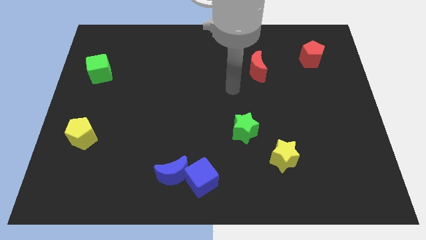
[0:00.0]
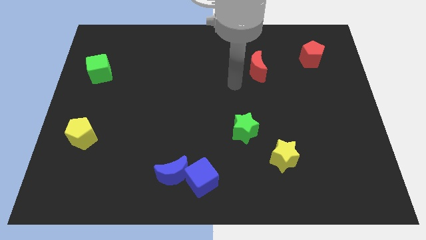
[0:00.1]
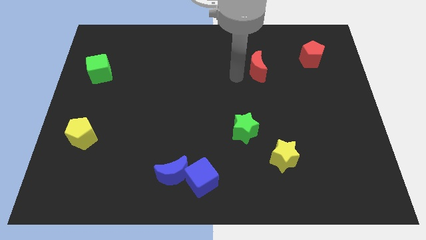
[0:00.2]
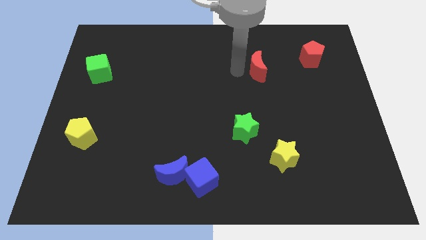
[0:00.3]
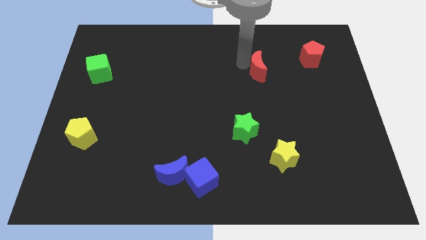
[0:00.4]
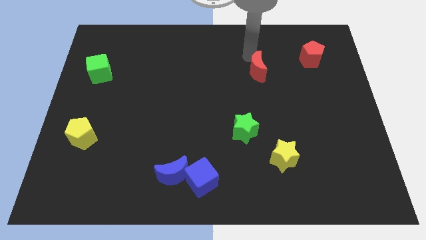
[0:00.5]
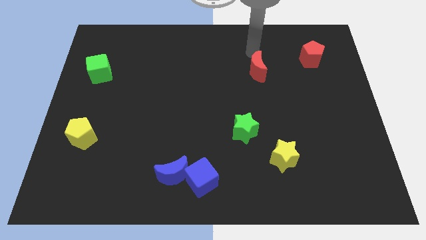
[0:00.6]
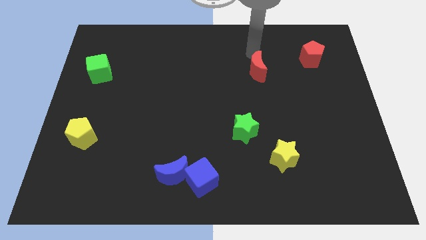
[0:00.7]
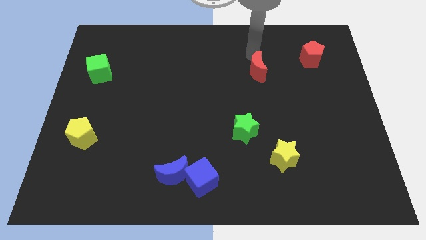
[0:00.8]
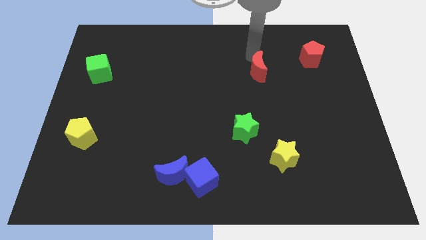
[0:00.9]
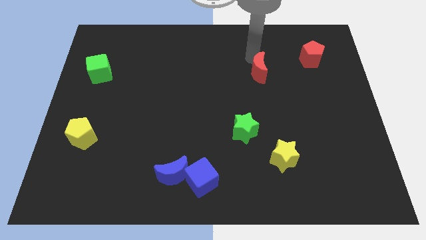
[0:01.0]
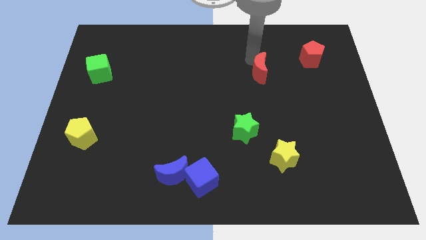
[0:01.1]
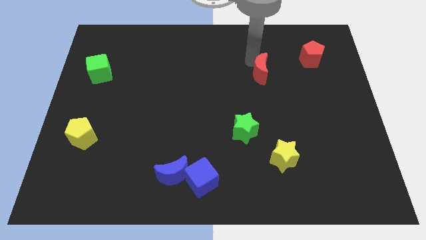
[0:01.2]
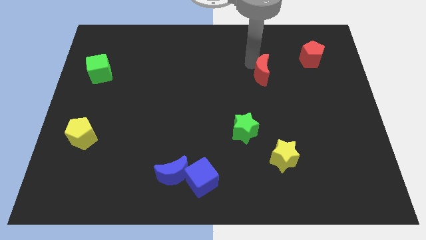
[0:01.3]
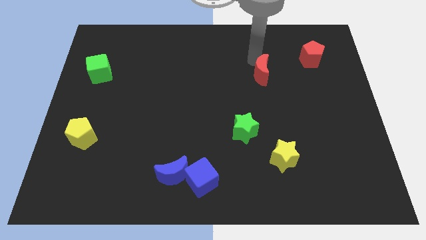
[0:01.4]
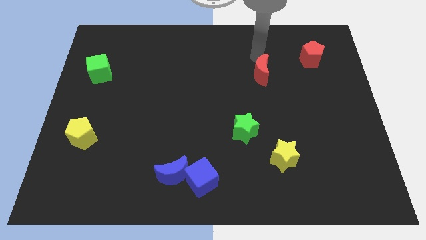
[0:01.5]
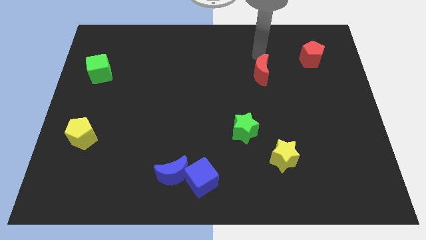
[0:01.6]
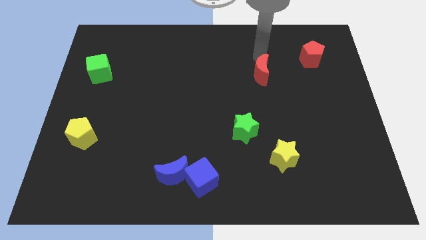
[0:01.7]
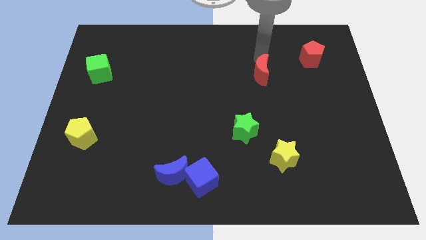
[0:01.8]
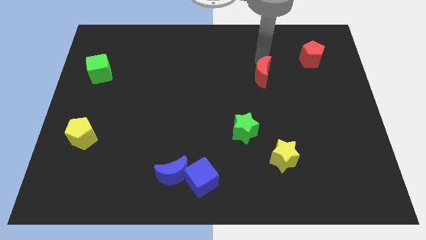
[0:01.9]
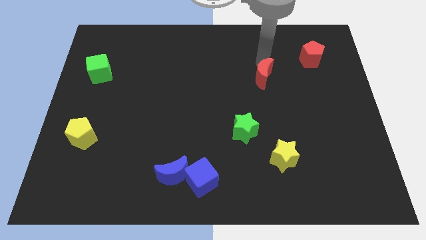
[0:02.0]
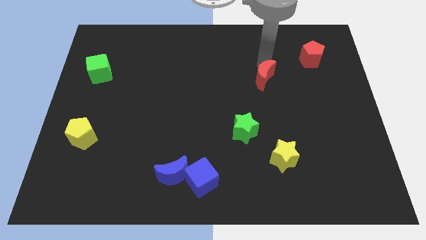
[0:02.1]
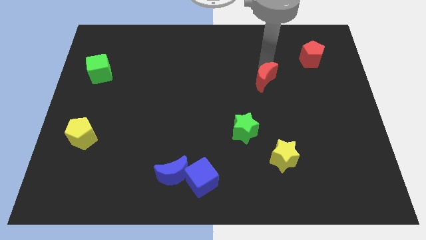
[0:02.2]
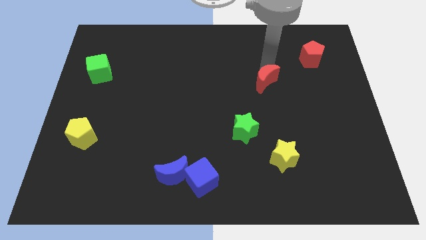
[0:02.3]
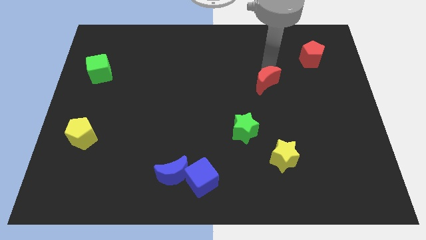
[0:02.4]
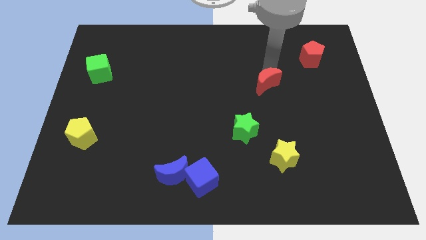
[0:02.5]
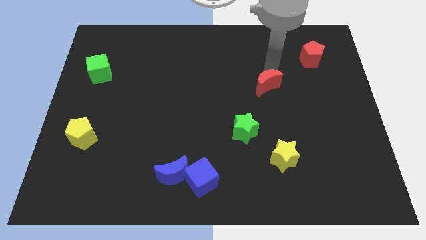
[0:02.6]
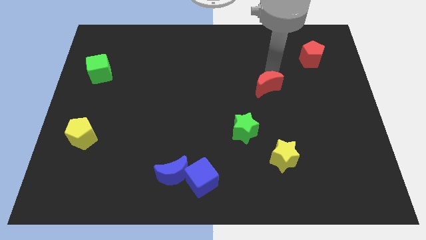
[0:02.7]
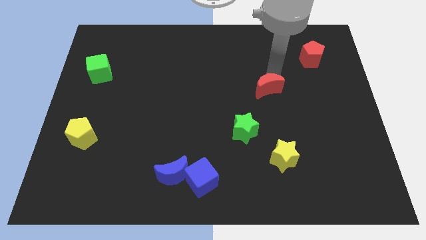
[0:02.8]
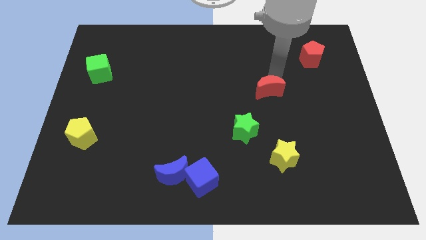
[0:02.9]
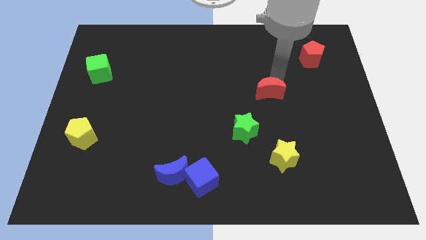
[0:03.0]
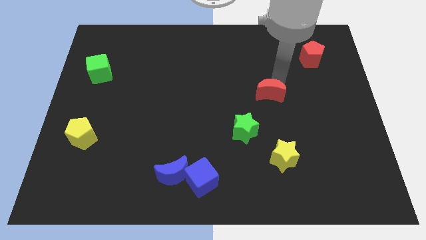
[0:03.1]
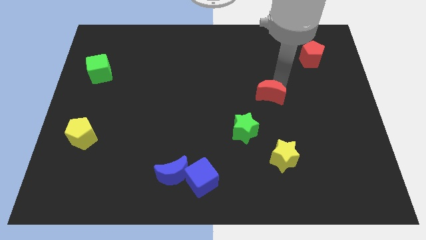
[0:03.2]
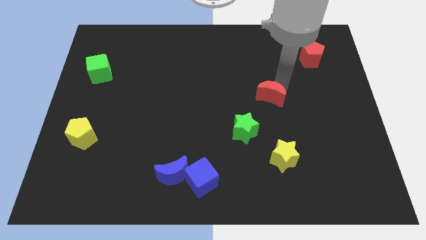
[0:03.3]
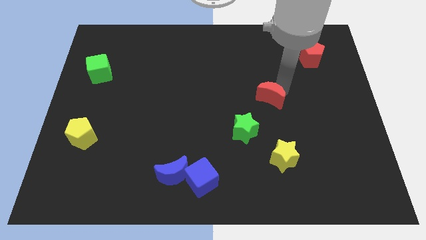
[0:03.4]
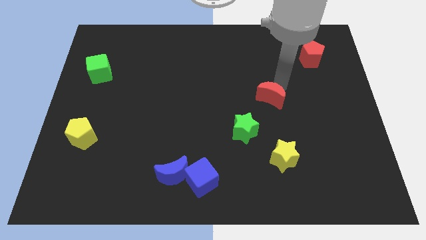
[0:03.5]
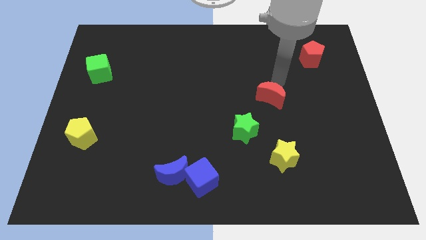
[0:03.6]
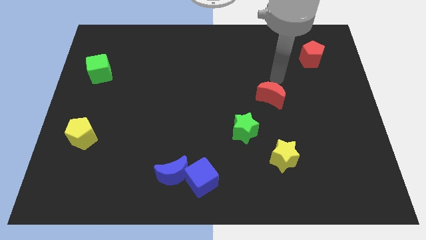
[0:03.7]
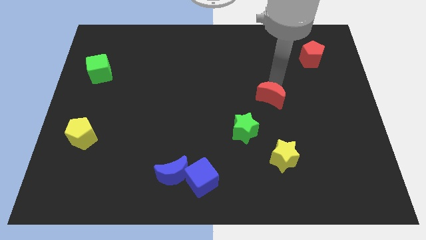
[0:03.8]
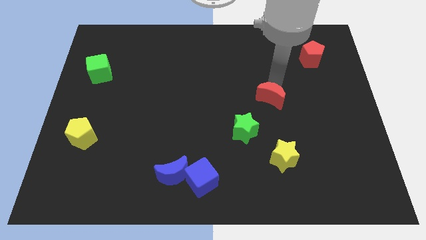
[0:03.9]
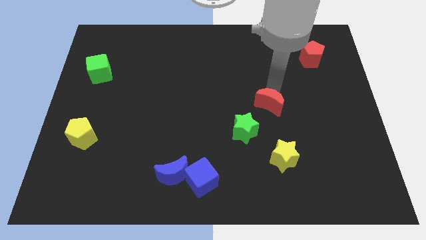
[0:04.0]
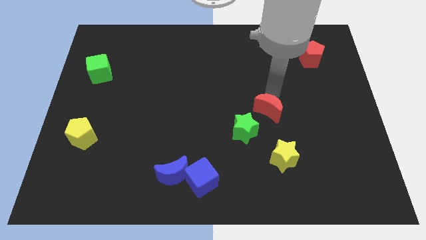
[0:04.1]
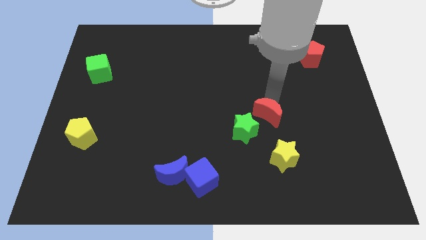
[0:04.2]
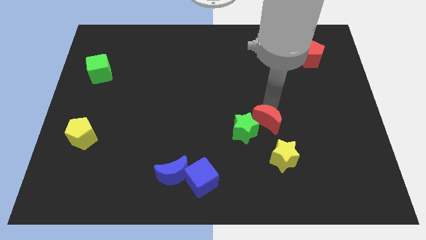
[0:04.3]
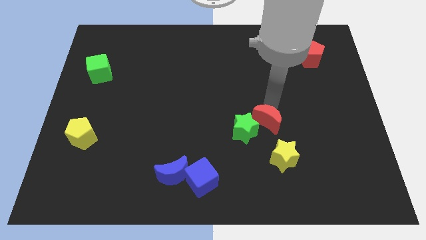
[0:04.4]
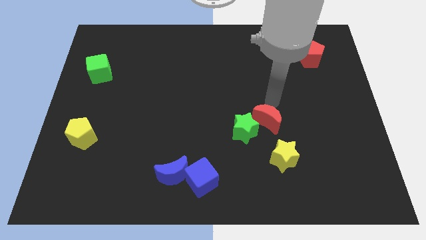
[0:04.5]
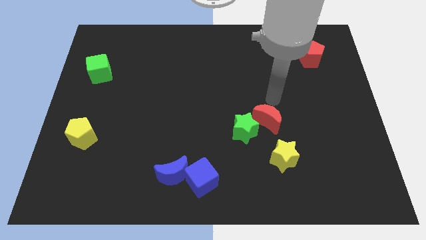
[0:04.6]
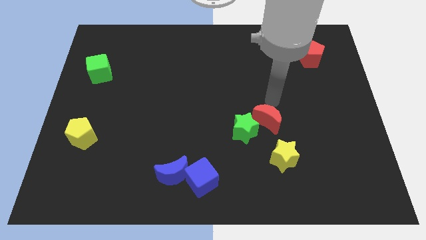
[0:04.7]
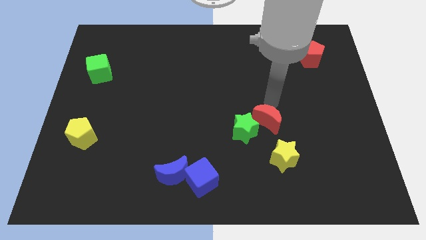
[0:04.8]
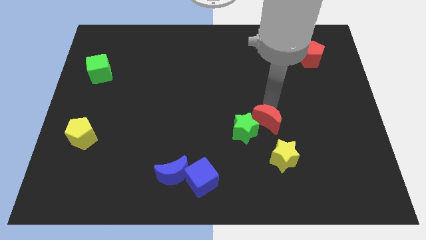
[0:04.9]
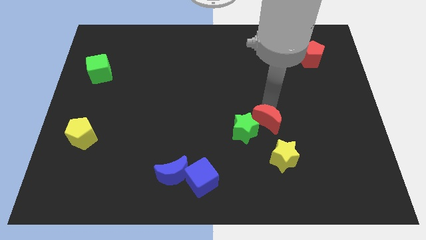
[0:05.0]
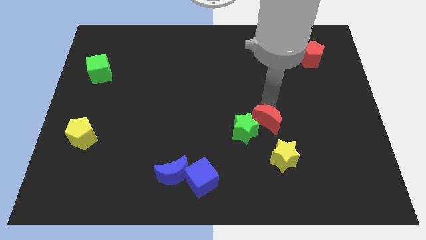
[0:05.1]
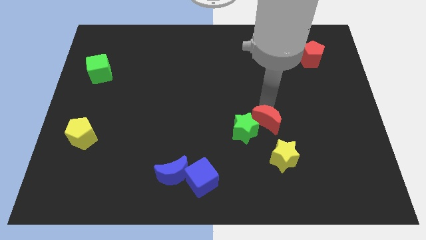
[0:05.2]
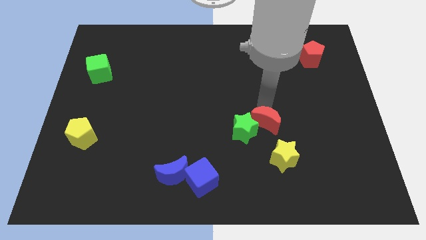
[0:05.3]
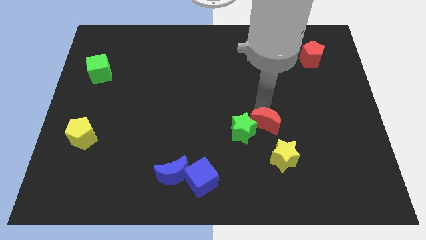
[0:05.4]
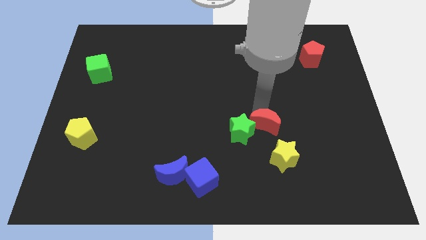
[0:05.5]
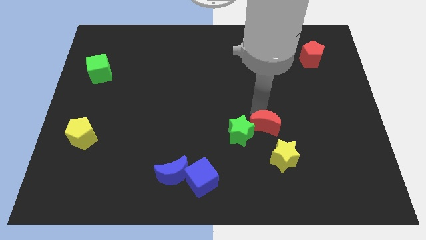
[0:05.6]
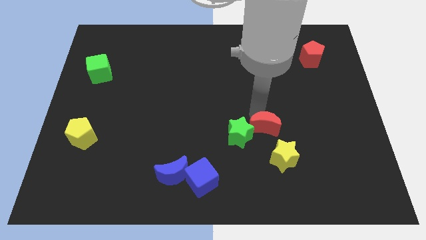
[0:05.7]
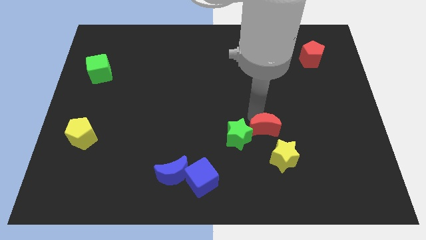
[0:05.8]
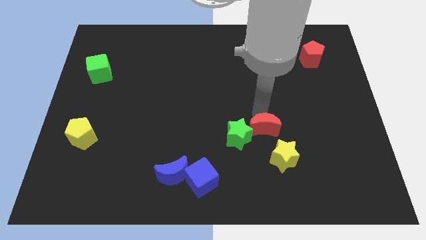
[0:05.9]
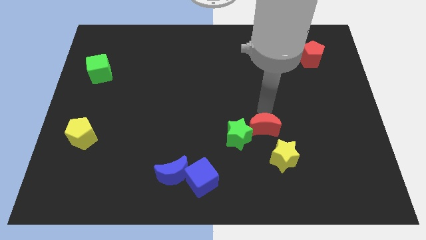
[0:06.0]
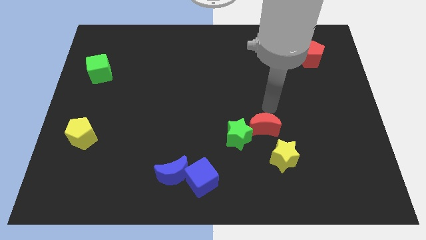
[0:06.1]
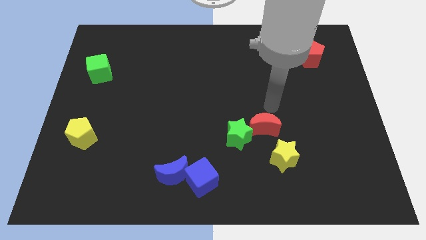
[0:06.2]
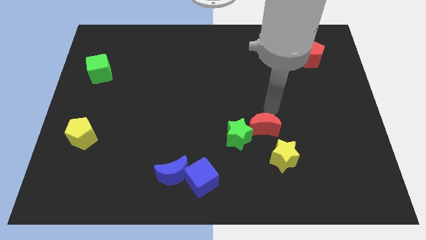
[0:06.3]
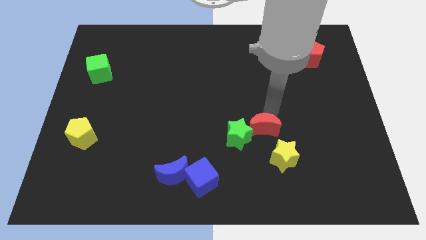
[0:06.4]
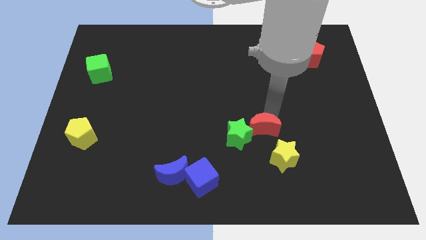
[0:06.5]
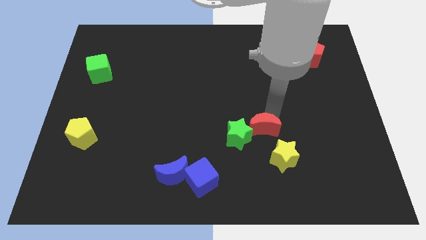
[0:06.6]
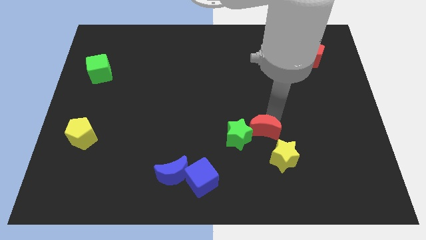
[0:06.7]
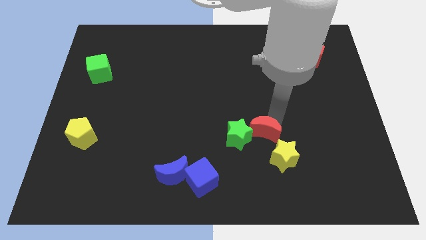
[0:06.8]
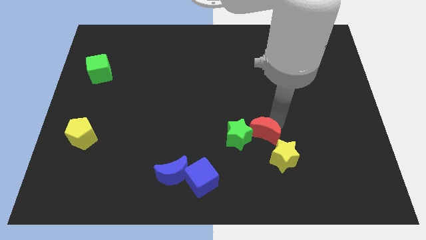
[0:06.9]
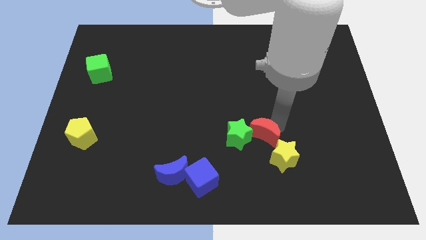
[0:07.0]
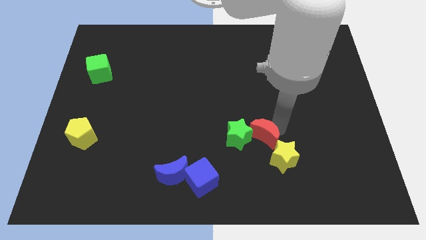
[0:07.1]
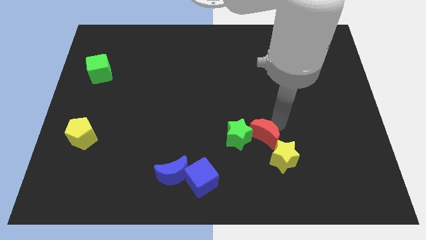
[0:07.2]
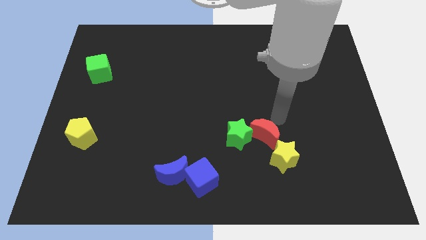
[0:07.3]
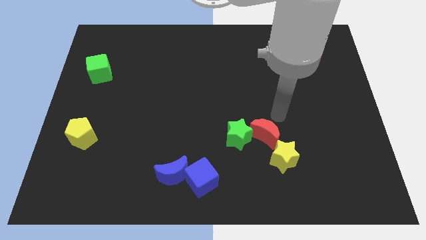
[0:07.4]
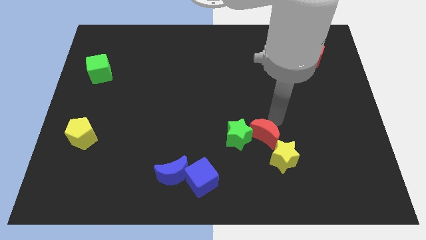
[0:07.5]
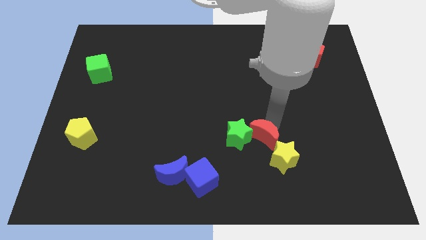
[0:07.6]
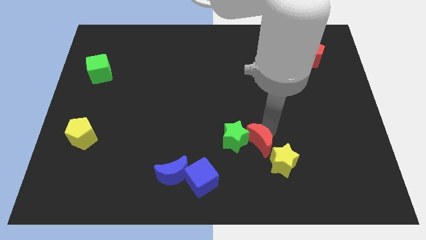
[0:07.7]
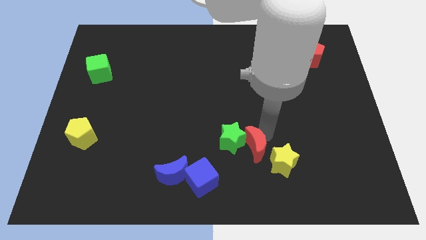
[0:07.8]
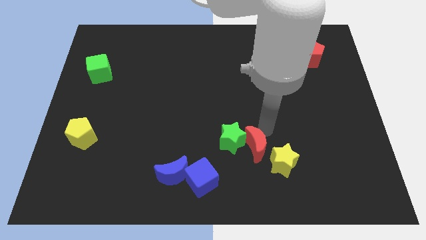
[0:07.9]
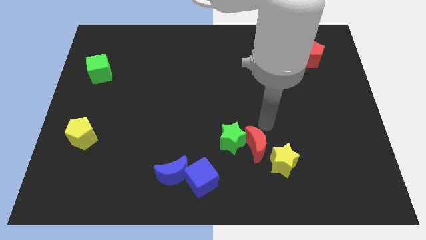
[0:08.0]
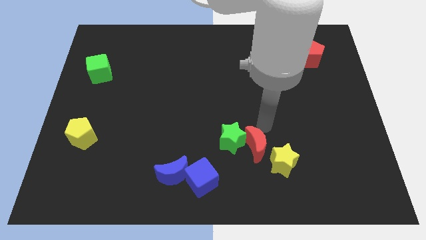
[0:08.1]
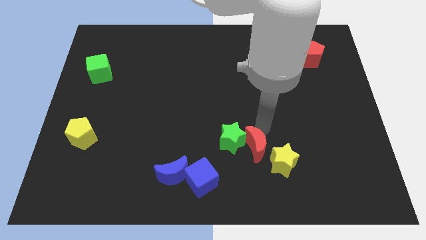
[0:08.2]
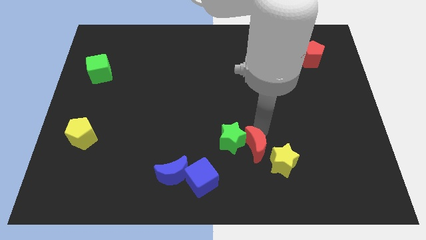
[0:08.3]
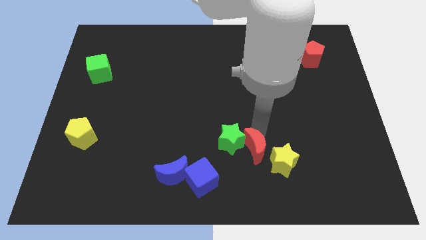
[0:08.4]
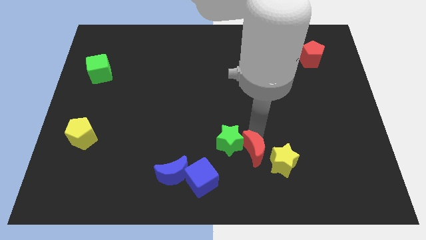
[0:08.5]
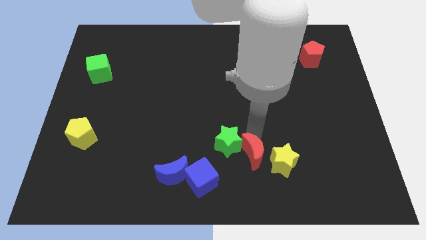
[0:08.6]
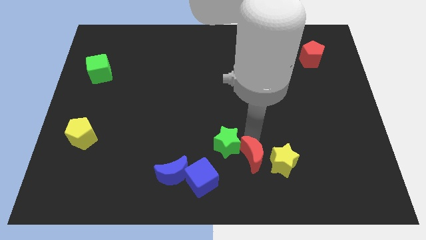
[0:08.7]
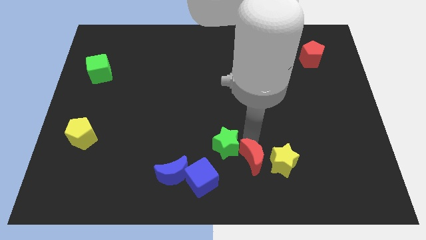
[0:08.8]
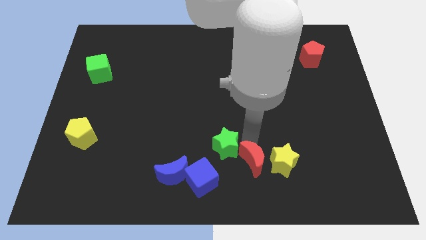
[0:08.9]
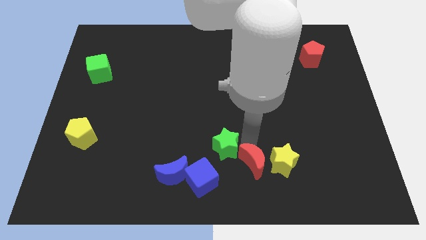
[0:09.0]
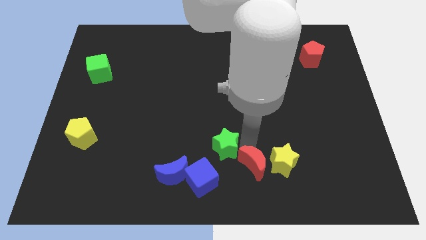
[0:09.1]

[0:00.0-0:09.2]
push the red moon to the bottom side
